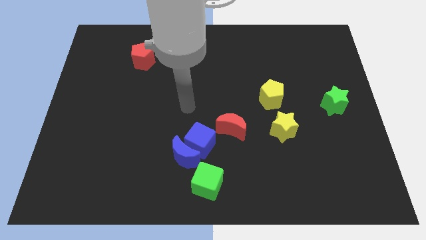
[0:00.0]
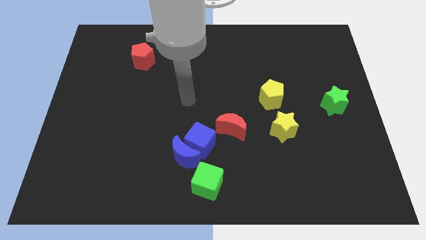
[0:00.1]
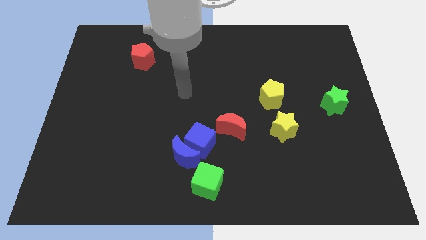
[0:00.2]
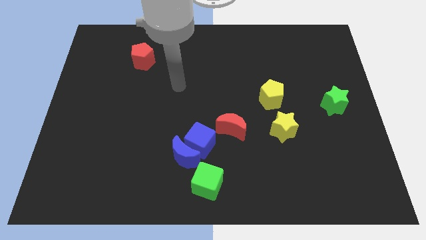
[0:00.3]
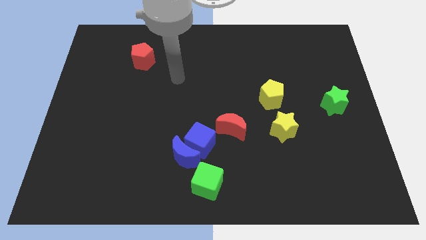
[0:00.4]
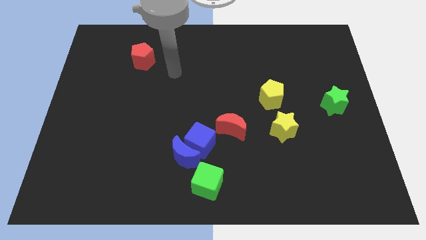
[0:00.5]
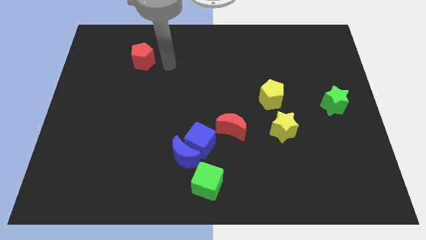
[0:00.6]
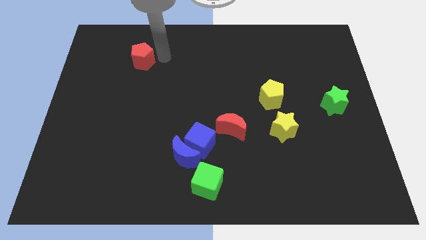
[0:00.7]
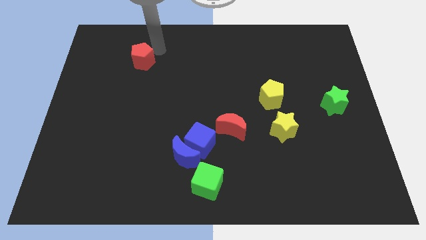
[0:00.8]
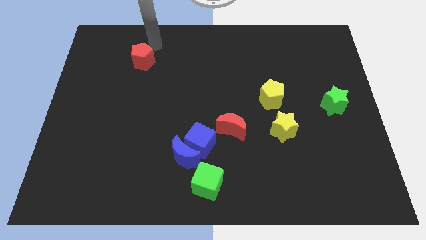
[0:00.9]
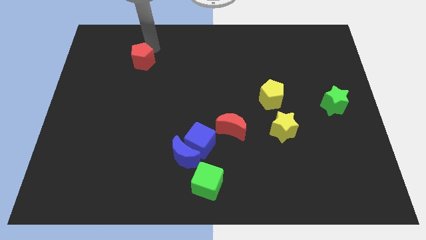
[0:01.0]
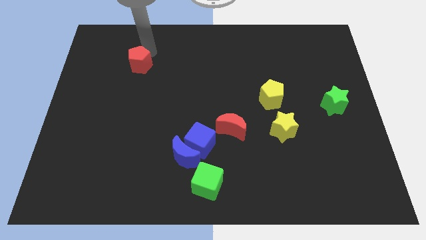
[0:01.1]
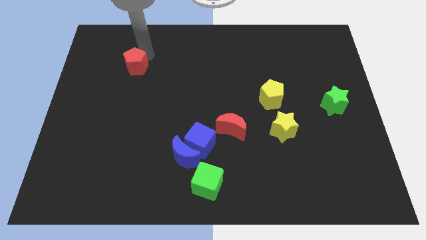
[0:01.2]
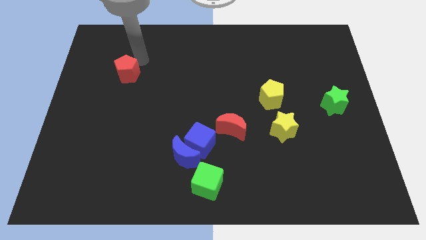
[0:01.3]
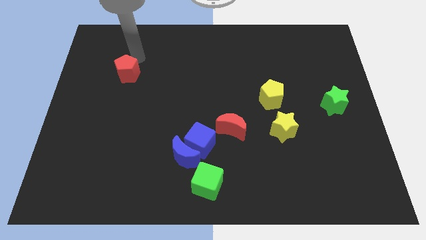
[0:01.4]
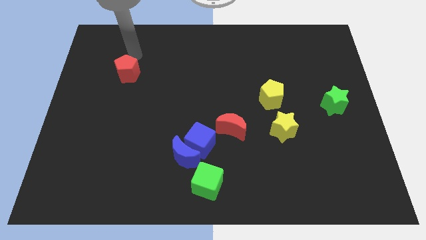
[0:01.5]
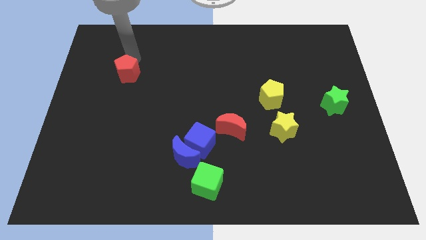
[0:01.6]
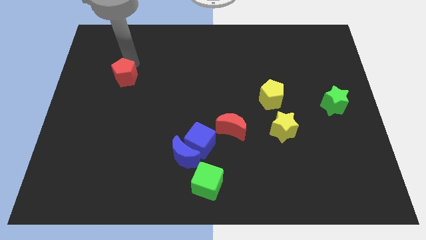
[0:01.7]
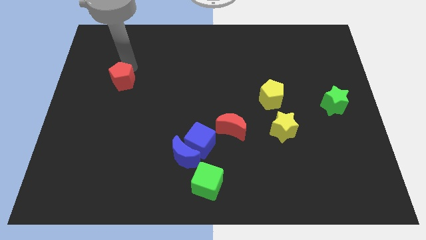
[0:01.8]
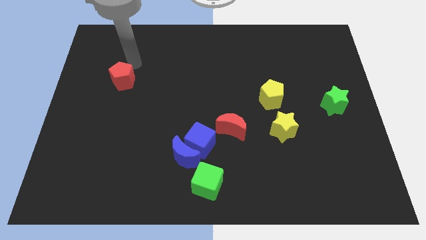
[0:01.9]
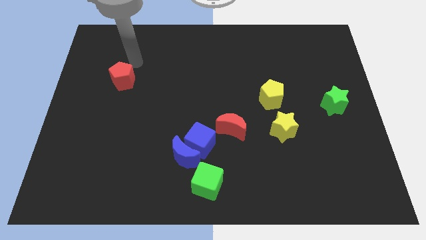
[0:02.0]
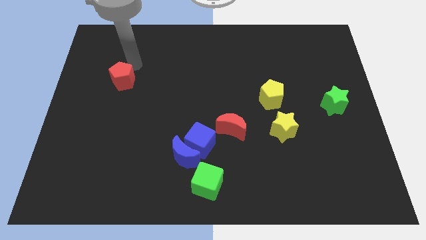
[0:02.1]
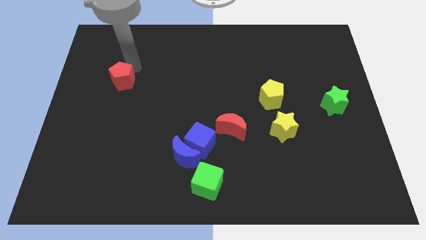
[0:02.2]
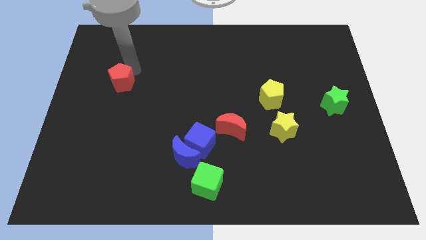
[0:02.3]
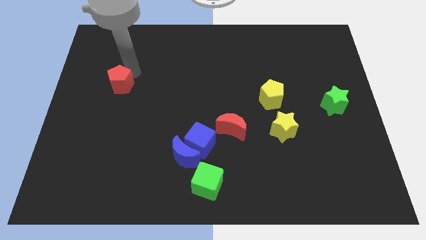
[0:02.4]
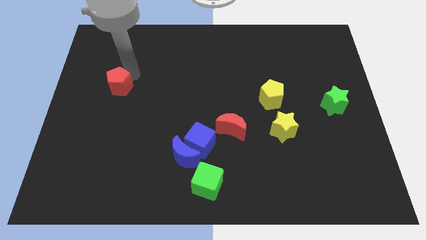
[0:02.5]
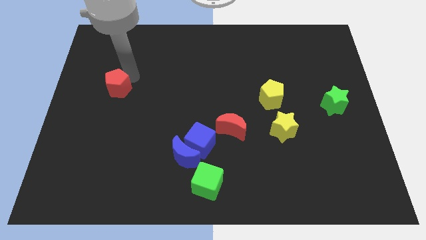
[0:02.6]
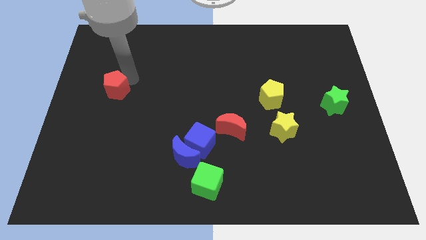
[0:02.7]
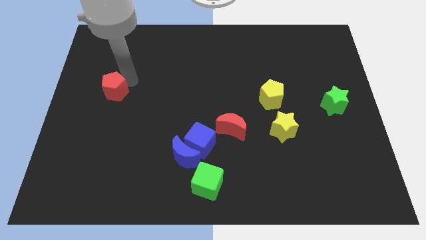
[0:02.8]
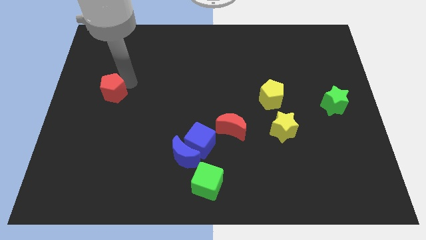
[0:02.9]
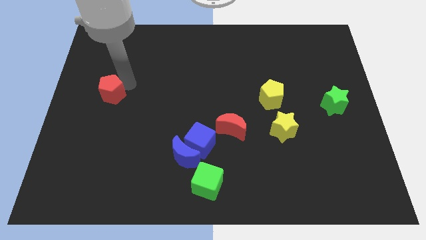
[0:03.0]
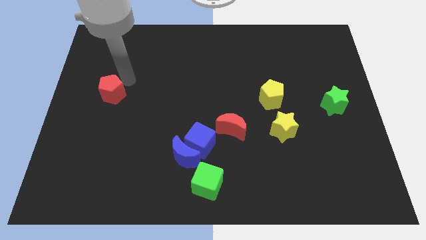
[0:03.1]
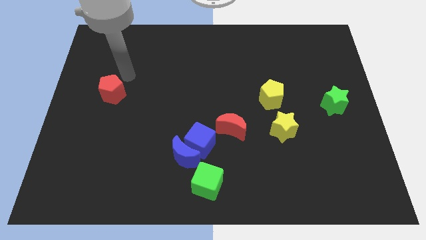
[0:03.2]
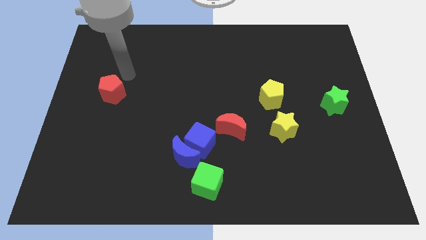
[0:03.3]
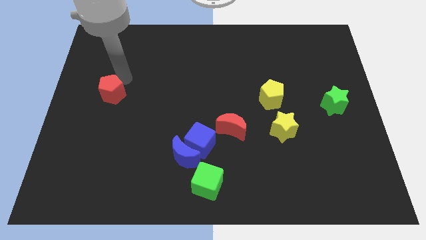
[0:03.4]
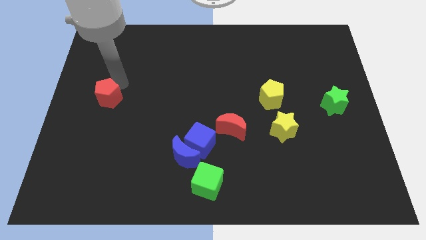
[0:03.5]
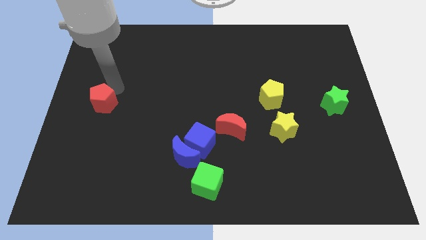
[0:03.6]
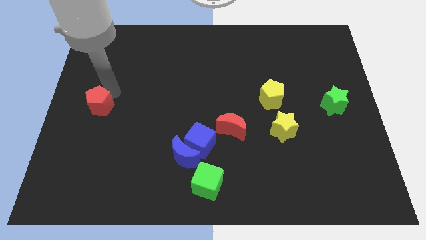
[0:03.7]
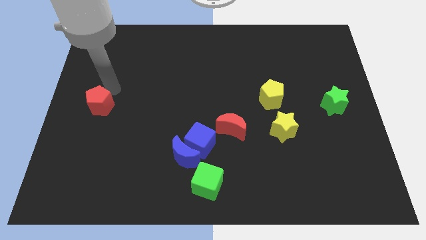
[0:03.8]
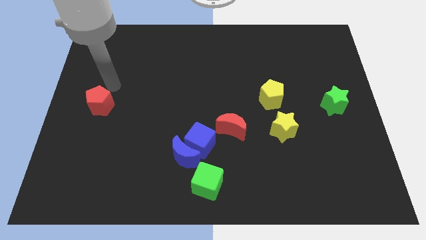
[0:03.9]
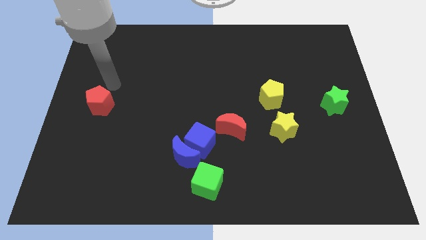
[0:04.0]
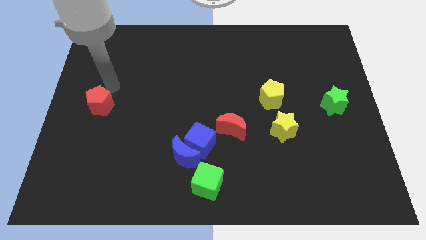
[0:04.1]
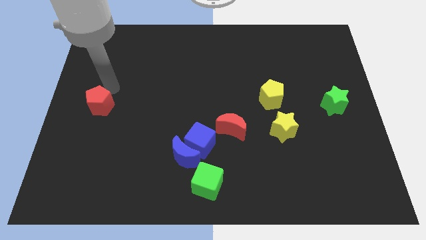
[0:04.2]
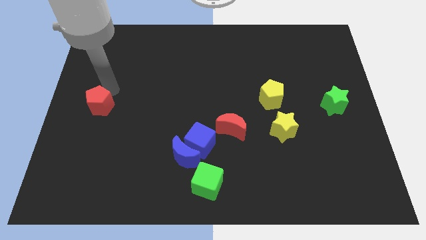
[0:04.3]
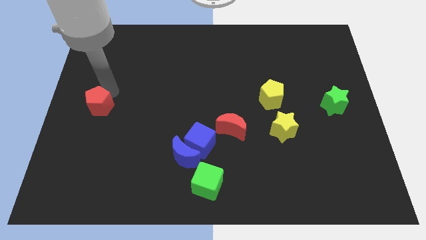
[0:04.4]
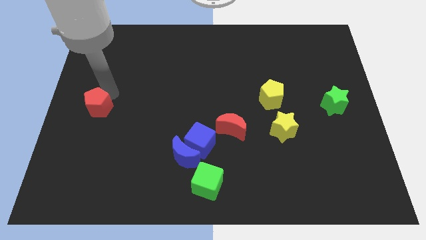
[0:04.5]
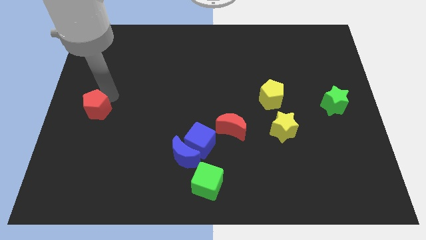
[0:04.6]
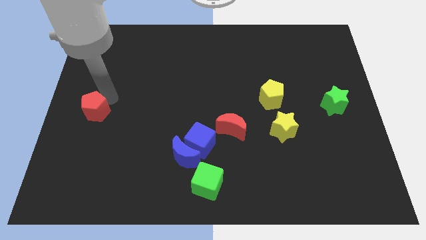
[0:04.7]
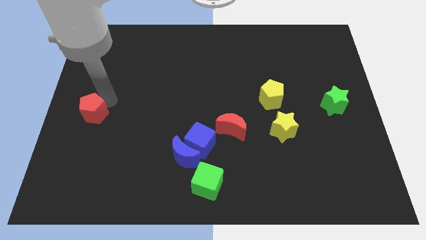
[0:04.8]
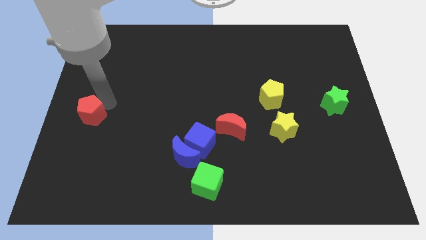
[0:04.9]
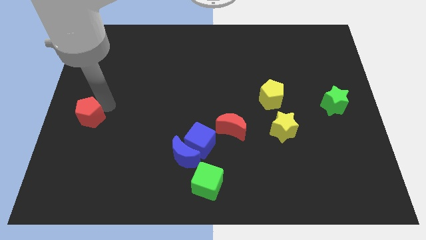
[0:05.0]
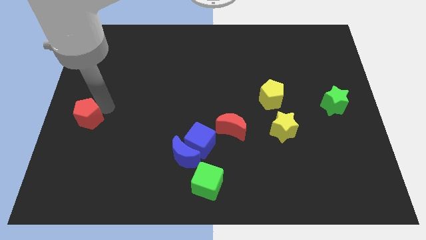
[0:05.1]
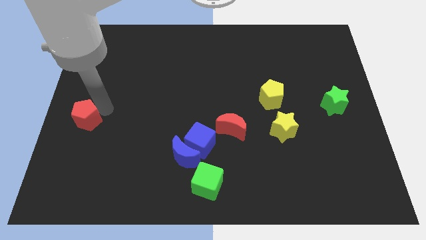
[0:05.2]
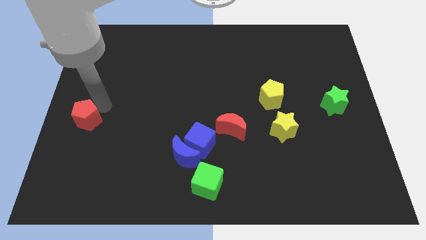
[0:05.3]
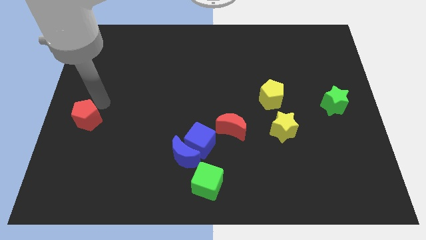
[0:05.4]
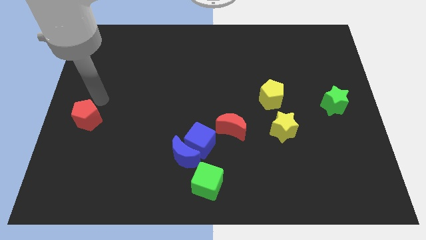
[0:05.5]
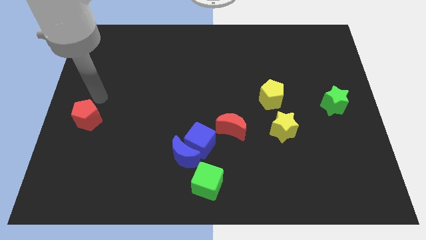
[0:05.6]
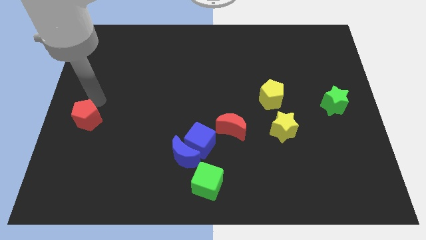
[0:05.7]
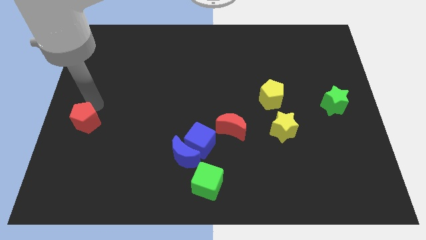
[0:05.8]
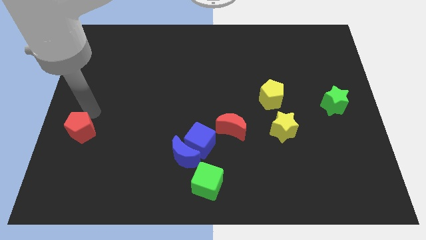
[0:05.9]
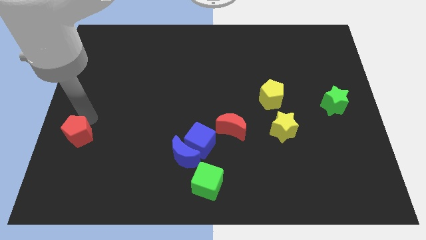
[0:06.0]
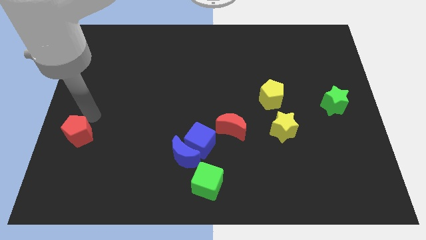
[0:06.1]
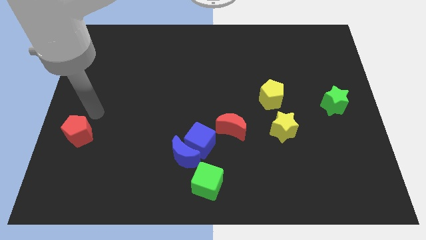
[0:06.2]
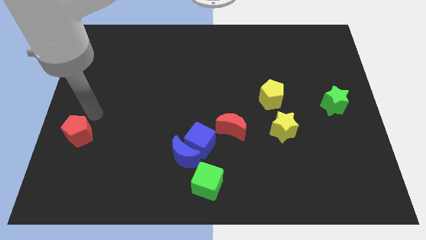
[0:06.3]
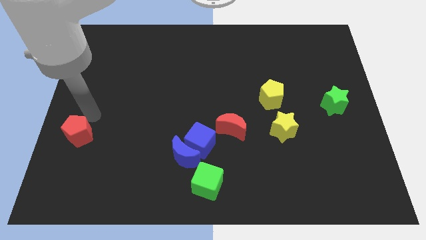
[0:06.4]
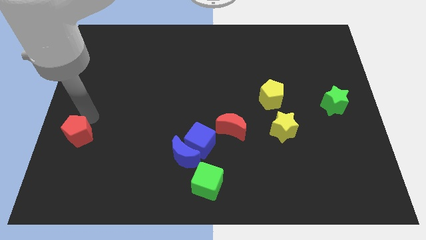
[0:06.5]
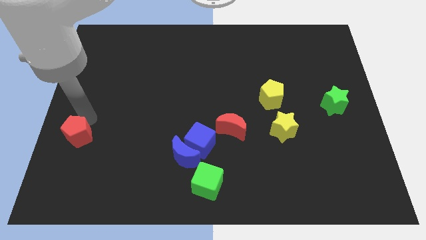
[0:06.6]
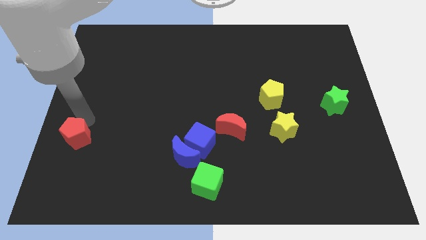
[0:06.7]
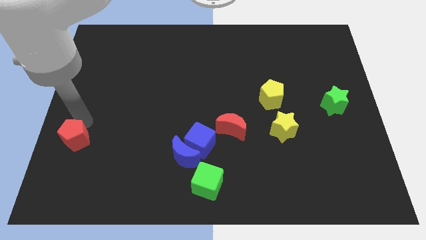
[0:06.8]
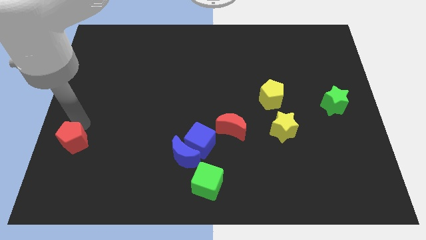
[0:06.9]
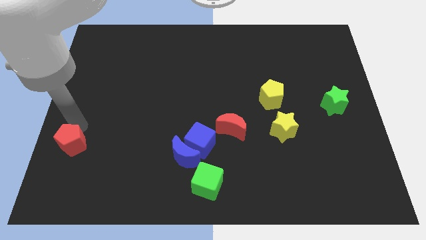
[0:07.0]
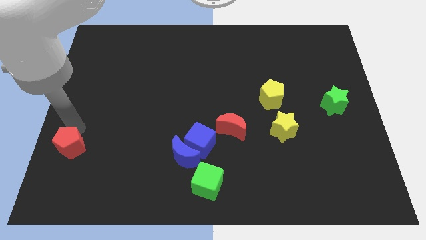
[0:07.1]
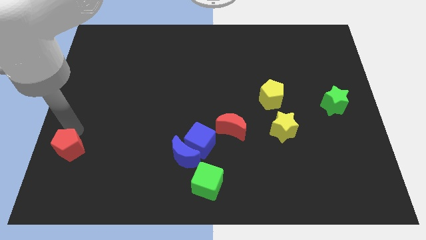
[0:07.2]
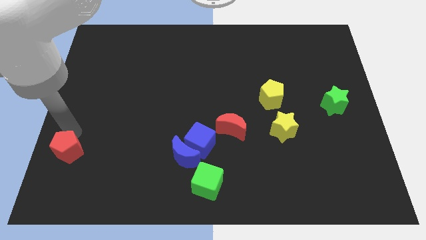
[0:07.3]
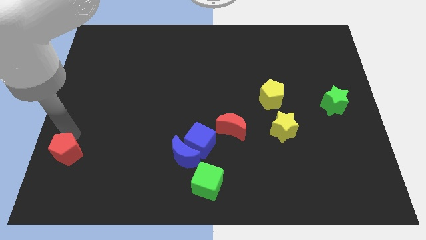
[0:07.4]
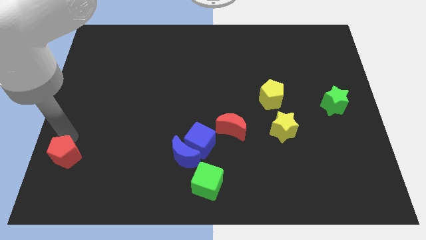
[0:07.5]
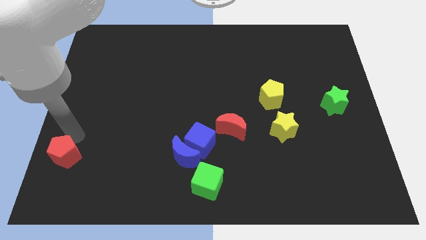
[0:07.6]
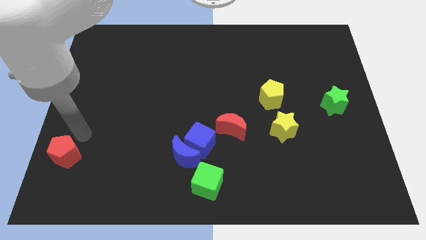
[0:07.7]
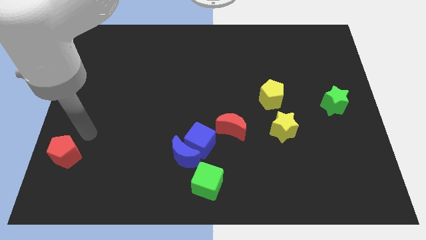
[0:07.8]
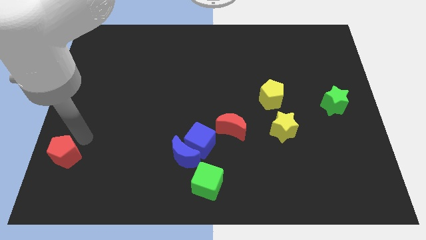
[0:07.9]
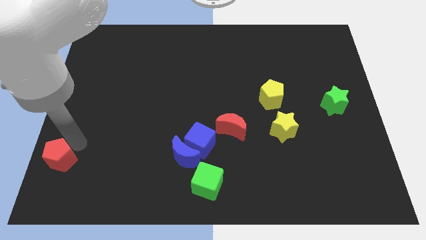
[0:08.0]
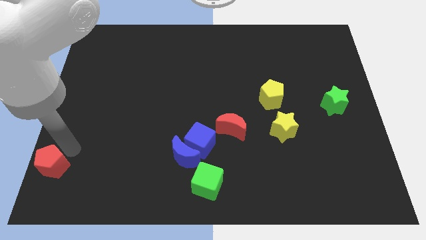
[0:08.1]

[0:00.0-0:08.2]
push the red pentagon to the lower left corner
